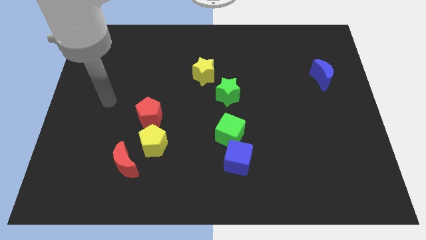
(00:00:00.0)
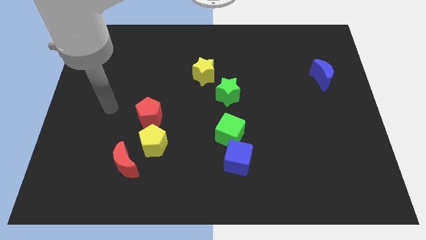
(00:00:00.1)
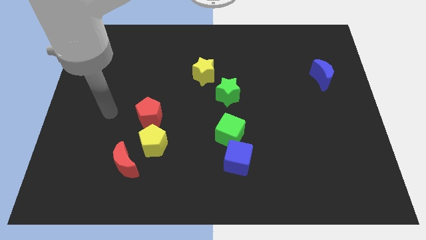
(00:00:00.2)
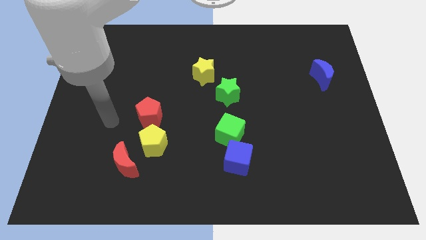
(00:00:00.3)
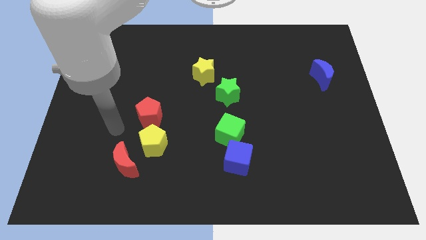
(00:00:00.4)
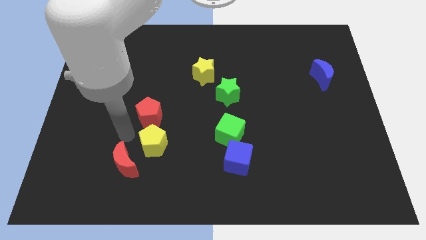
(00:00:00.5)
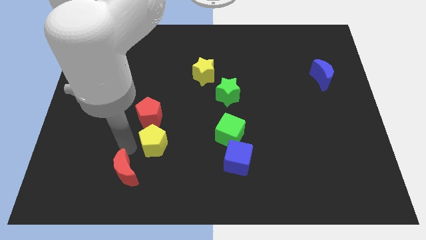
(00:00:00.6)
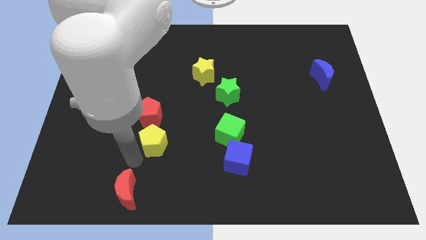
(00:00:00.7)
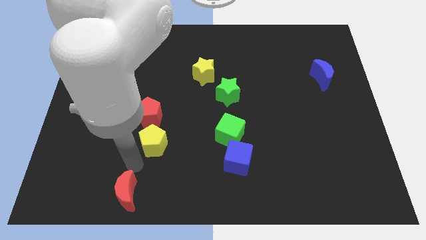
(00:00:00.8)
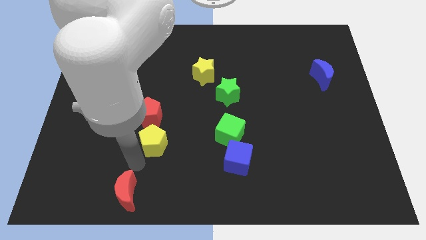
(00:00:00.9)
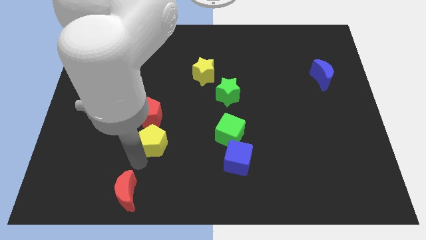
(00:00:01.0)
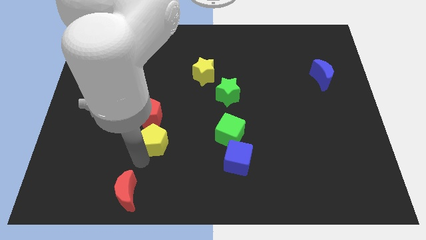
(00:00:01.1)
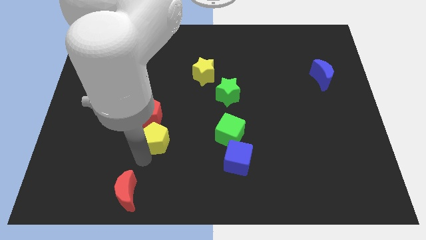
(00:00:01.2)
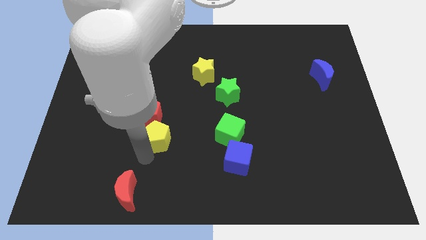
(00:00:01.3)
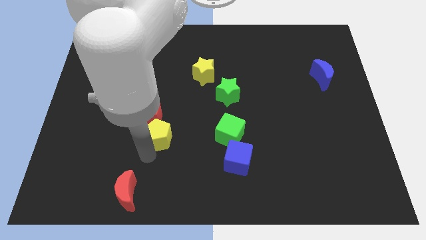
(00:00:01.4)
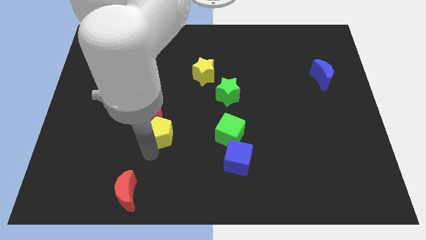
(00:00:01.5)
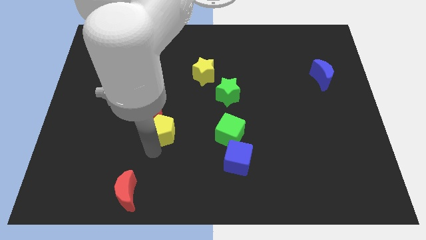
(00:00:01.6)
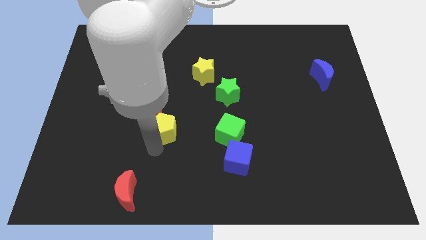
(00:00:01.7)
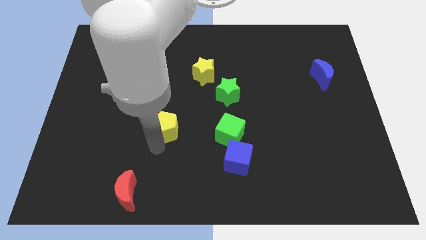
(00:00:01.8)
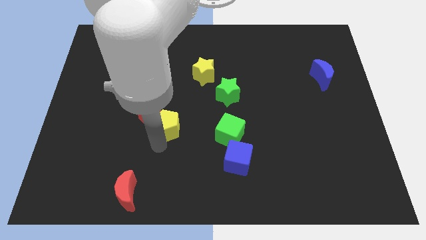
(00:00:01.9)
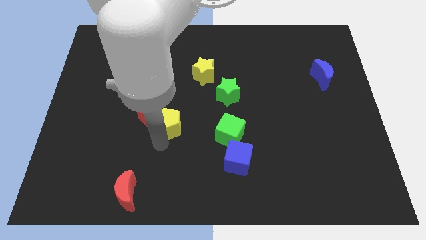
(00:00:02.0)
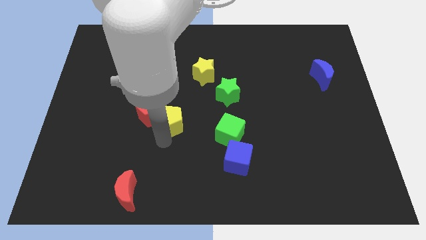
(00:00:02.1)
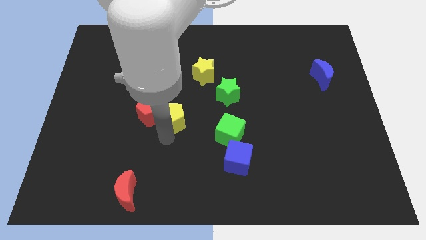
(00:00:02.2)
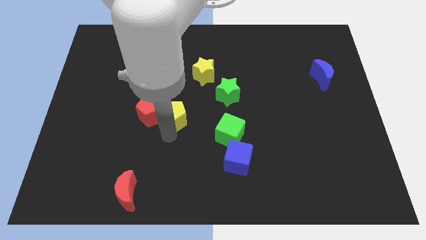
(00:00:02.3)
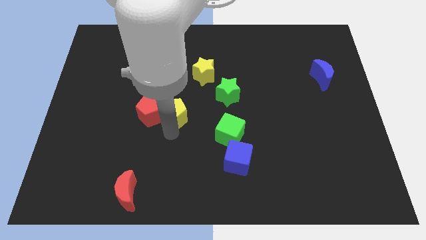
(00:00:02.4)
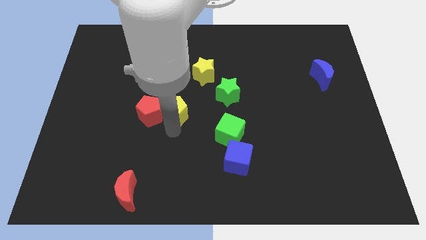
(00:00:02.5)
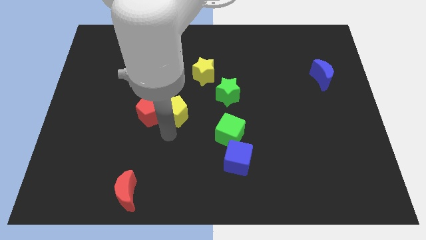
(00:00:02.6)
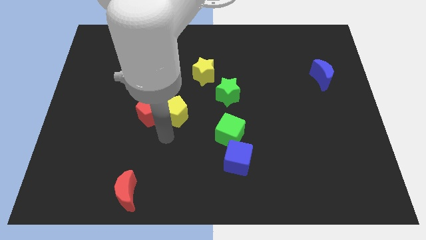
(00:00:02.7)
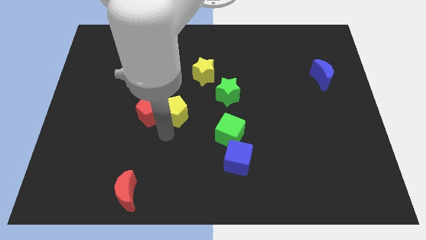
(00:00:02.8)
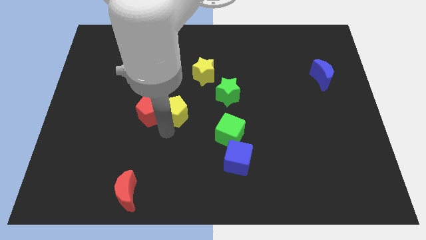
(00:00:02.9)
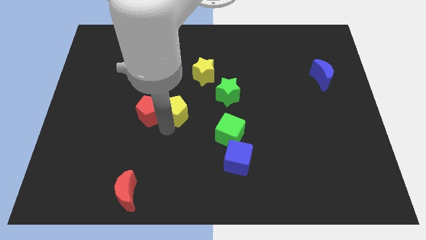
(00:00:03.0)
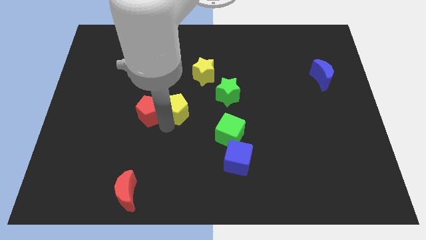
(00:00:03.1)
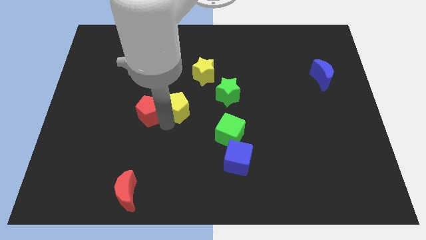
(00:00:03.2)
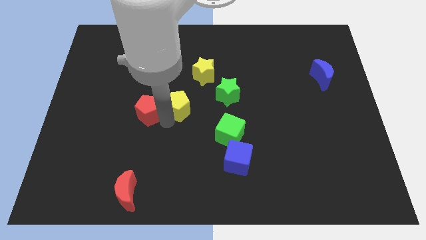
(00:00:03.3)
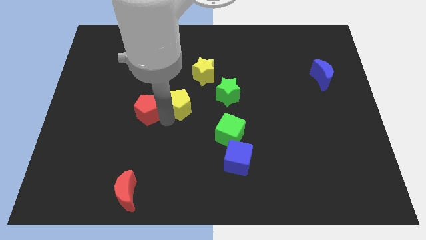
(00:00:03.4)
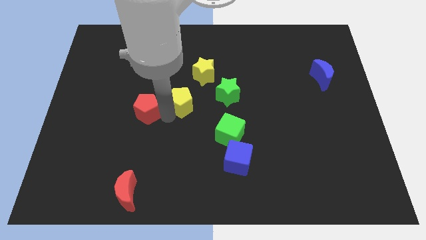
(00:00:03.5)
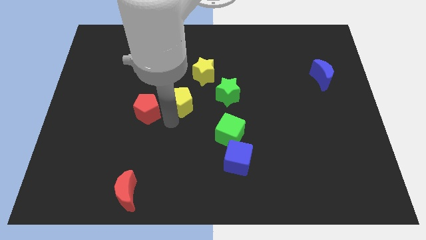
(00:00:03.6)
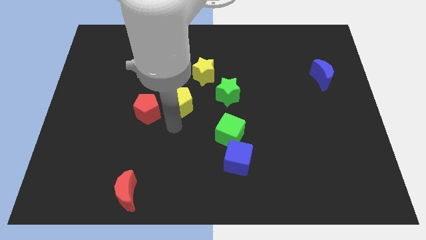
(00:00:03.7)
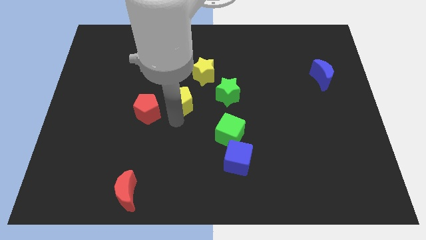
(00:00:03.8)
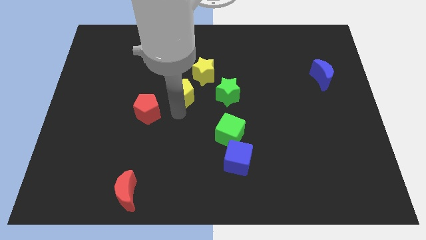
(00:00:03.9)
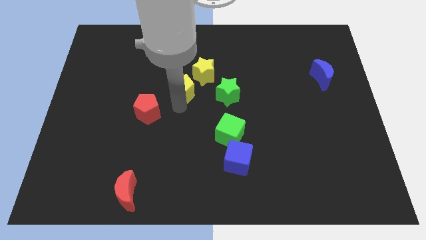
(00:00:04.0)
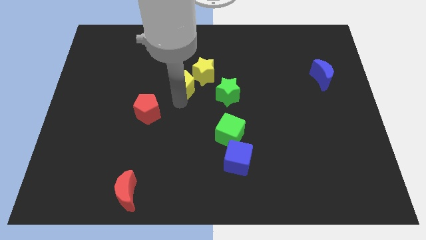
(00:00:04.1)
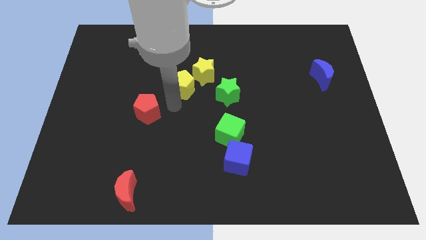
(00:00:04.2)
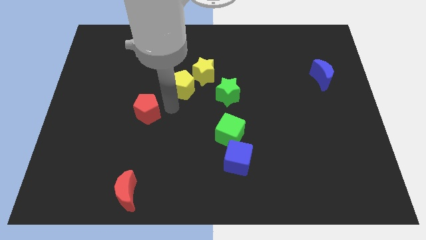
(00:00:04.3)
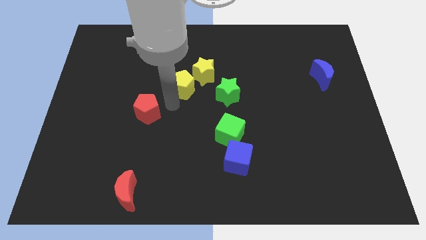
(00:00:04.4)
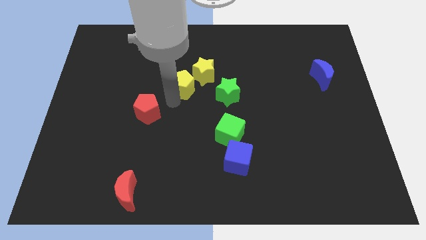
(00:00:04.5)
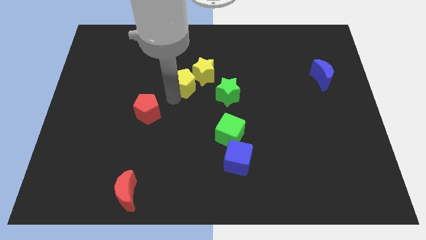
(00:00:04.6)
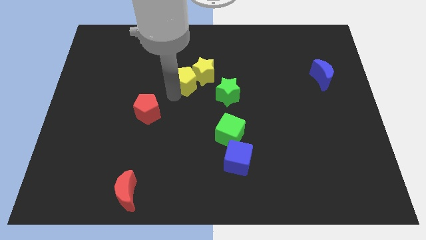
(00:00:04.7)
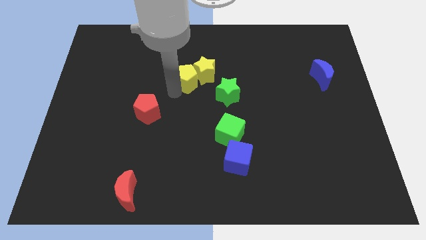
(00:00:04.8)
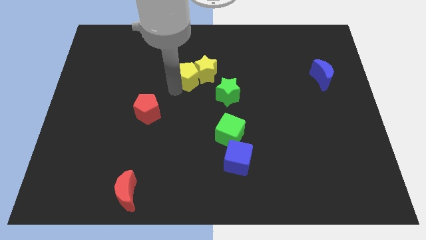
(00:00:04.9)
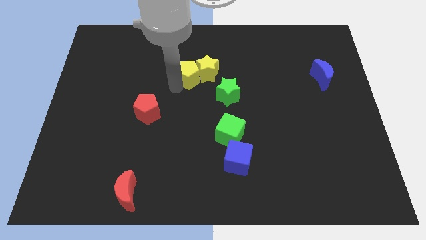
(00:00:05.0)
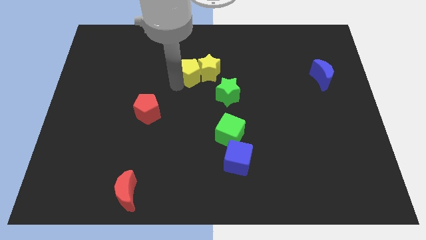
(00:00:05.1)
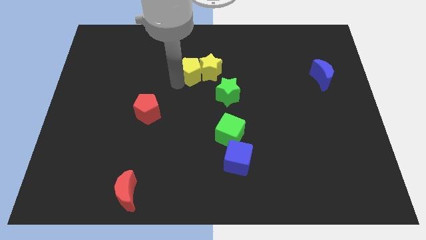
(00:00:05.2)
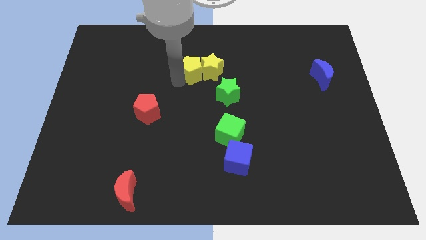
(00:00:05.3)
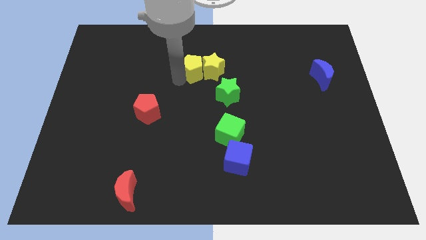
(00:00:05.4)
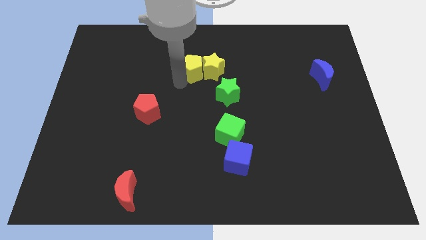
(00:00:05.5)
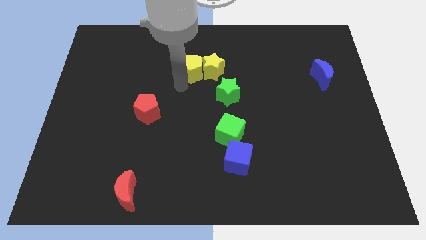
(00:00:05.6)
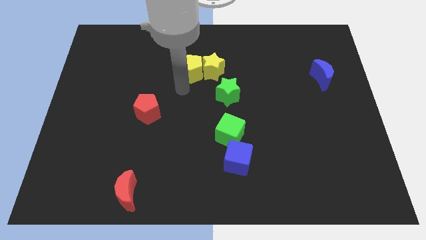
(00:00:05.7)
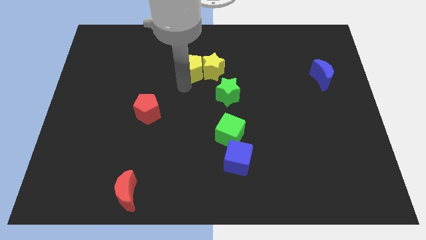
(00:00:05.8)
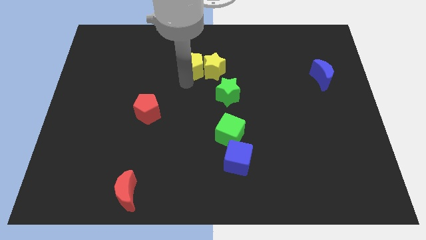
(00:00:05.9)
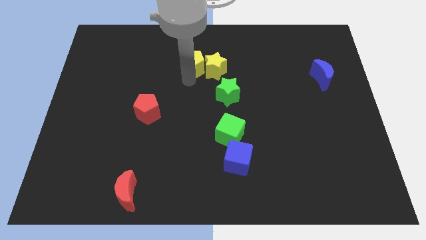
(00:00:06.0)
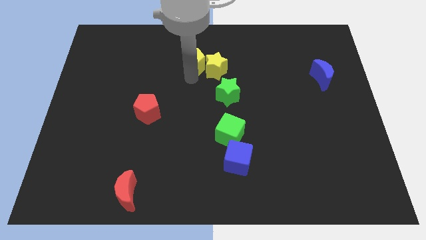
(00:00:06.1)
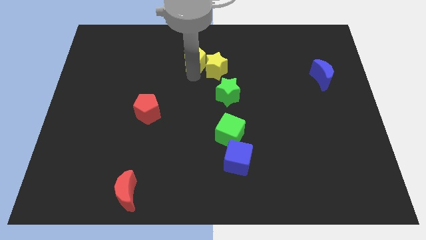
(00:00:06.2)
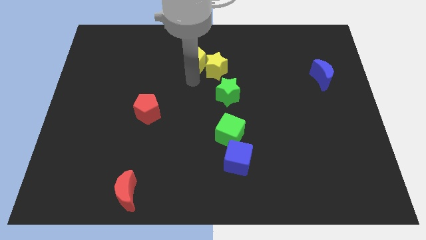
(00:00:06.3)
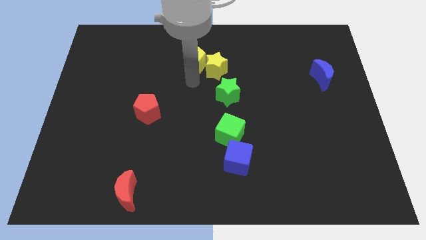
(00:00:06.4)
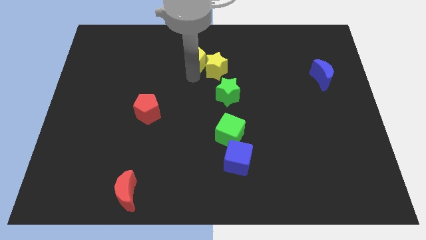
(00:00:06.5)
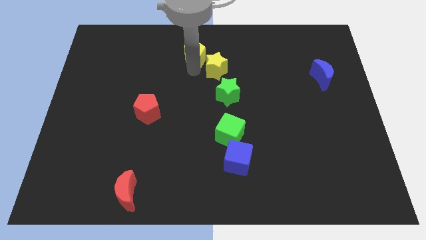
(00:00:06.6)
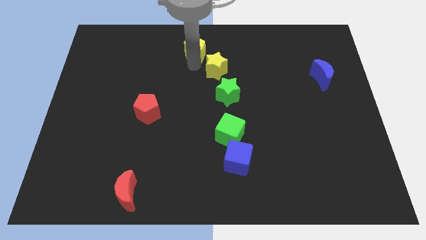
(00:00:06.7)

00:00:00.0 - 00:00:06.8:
put the yellow pentagon to the top side
